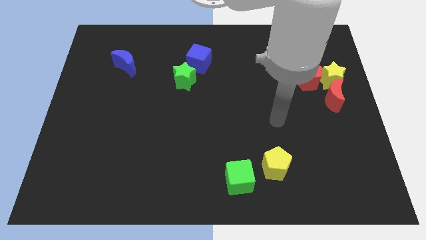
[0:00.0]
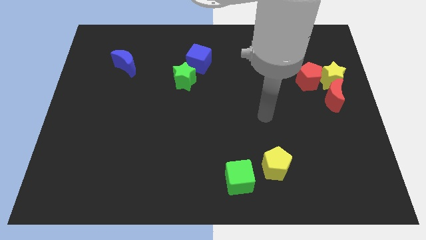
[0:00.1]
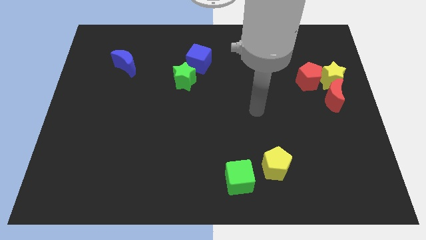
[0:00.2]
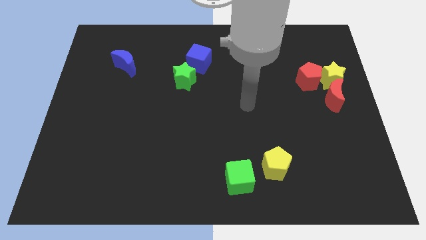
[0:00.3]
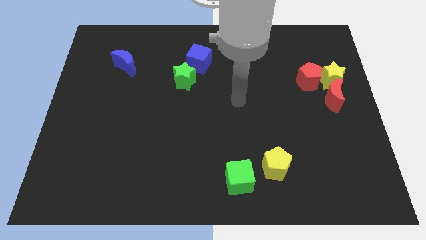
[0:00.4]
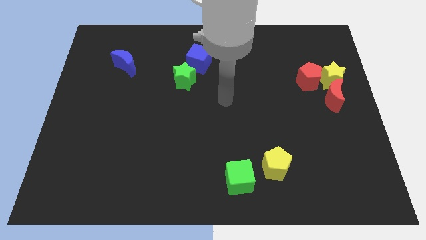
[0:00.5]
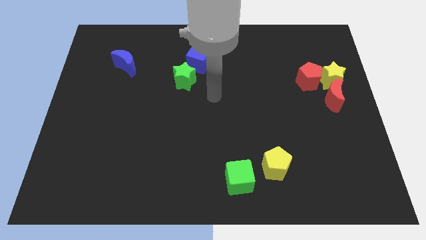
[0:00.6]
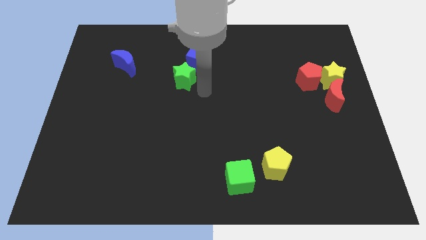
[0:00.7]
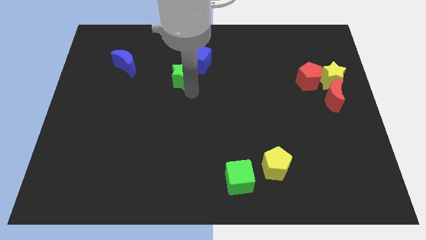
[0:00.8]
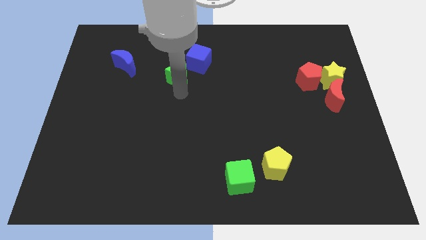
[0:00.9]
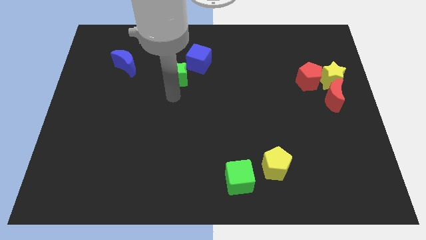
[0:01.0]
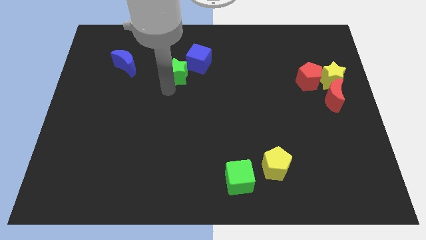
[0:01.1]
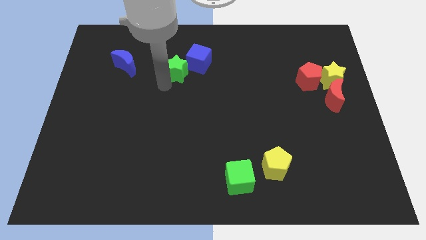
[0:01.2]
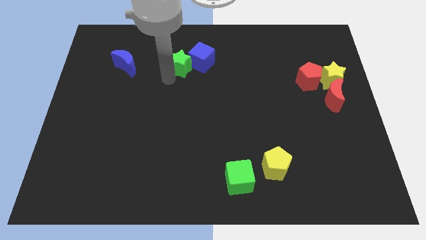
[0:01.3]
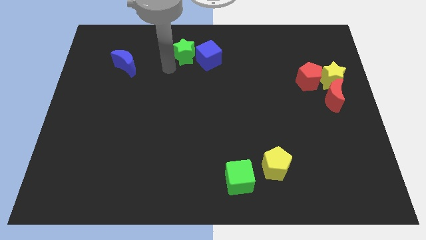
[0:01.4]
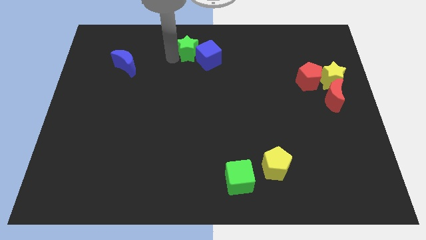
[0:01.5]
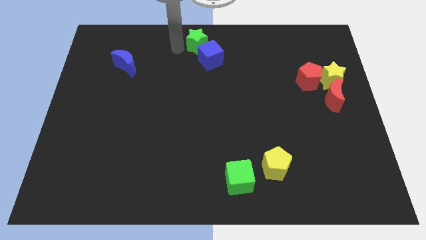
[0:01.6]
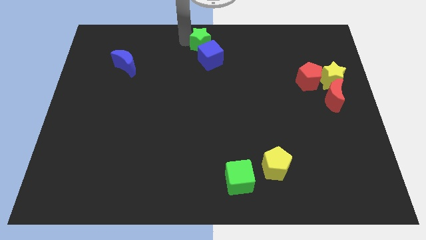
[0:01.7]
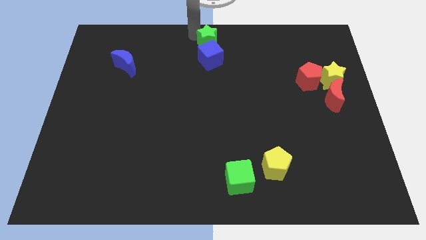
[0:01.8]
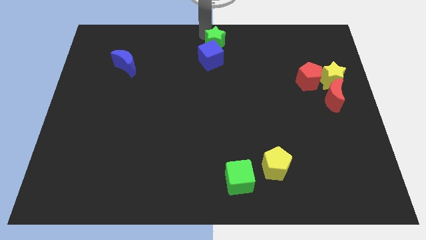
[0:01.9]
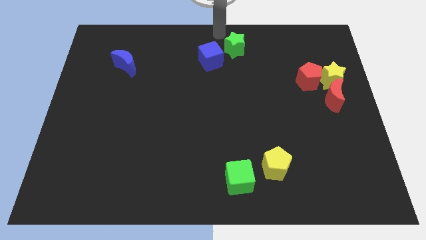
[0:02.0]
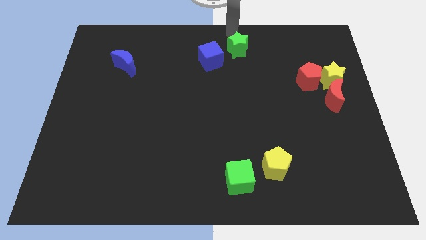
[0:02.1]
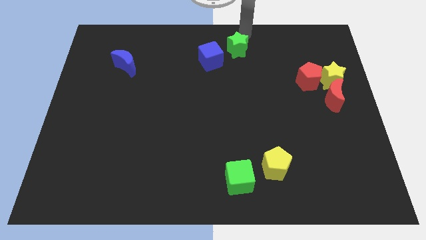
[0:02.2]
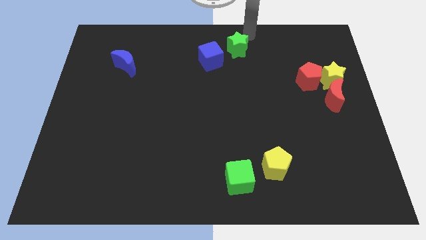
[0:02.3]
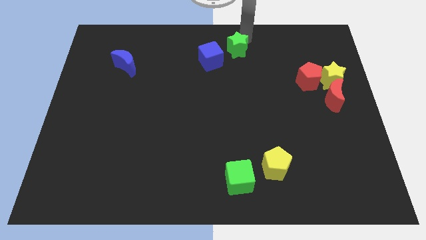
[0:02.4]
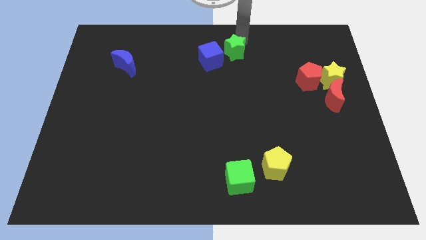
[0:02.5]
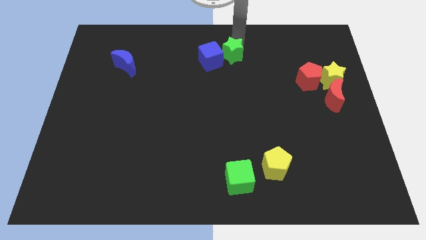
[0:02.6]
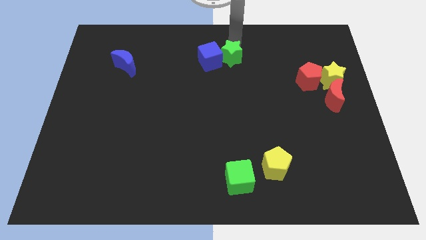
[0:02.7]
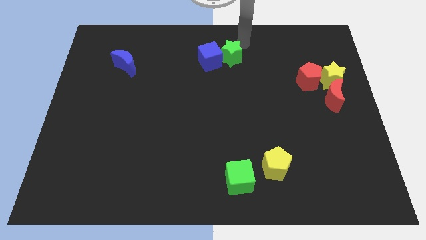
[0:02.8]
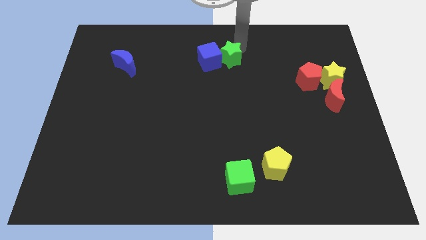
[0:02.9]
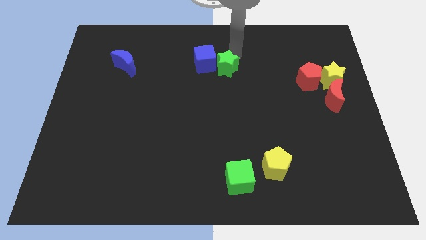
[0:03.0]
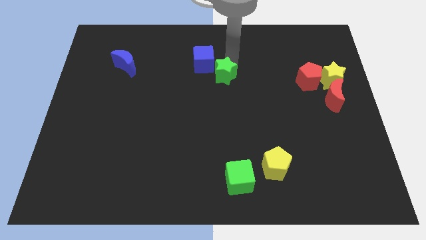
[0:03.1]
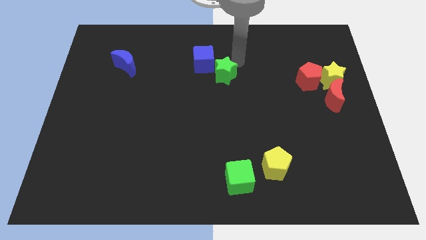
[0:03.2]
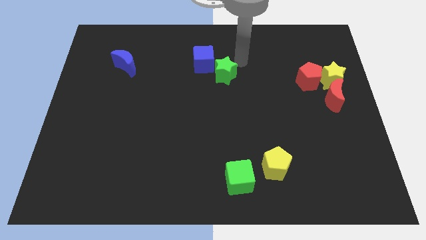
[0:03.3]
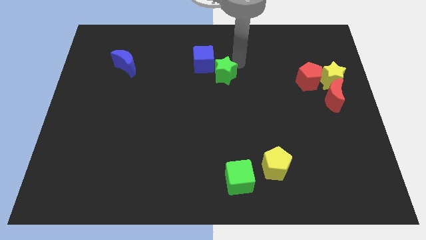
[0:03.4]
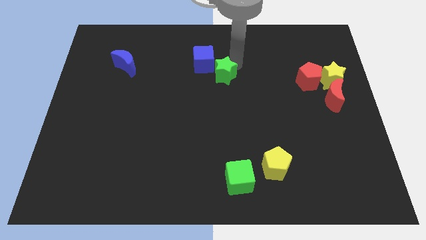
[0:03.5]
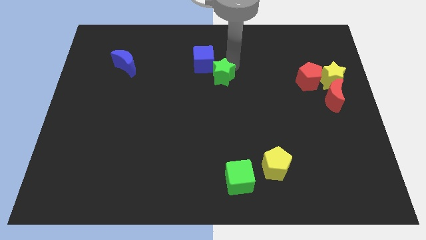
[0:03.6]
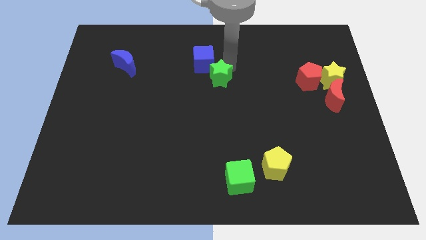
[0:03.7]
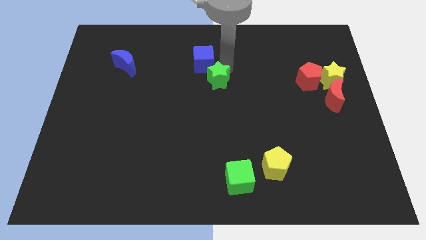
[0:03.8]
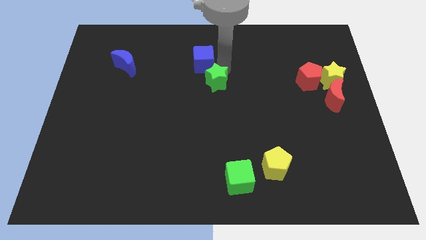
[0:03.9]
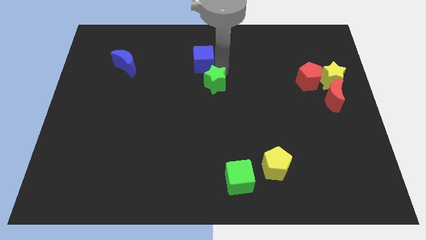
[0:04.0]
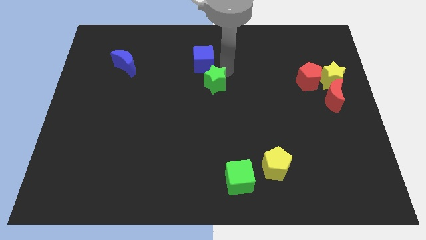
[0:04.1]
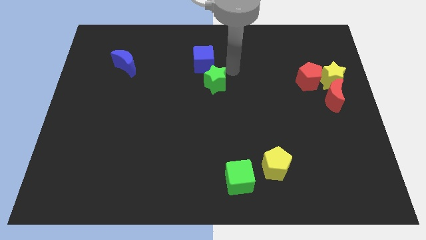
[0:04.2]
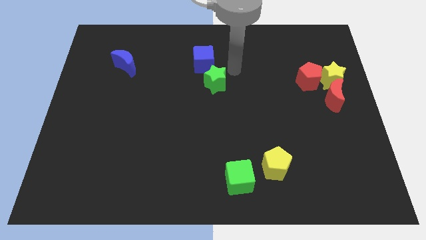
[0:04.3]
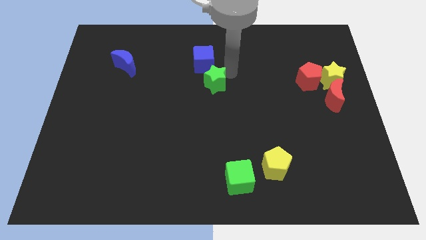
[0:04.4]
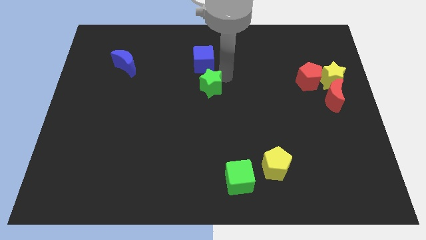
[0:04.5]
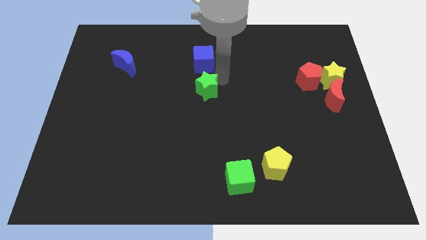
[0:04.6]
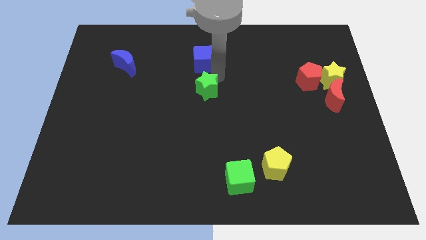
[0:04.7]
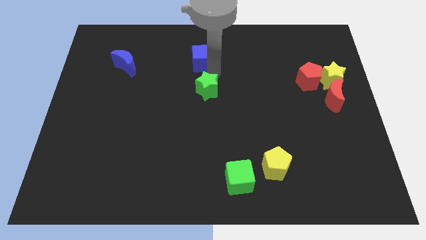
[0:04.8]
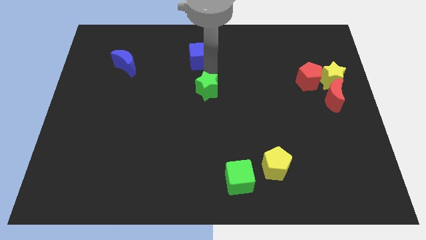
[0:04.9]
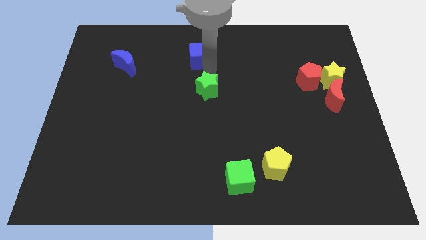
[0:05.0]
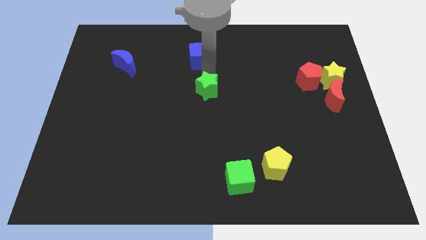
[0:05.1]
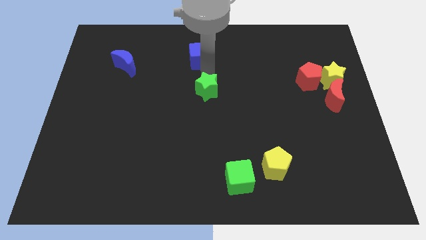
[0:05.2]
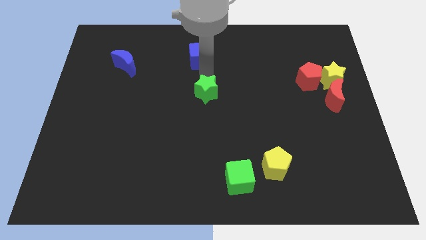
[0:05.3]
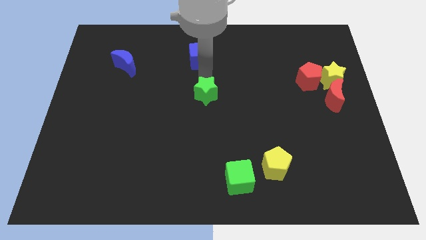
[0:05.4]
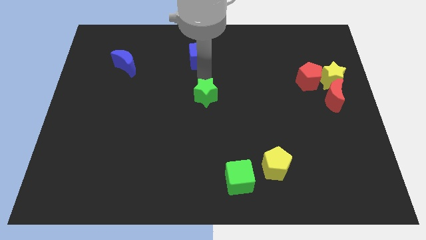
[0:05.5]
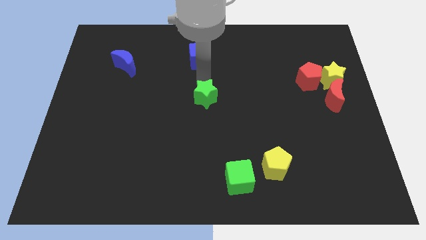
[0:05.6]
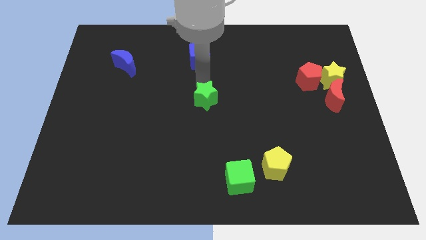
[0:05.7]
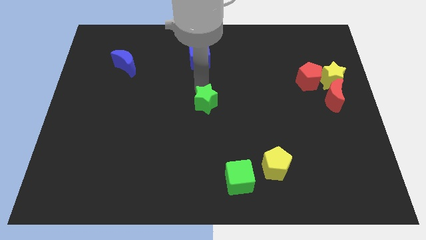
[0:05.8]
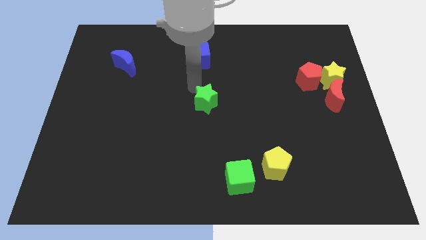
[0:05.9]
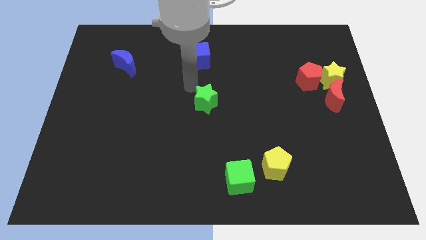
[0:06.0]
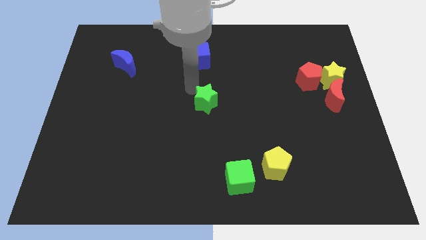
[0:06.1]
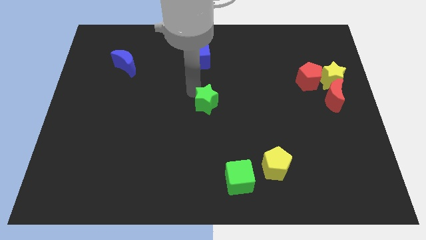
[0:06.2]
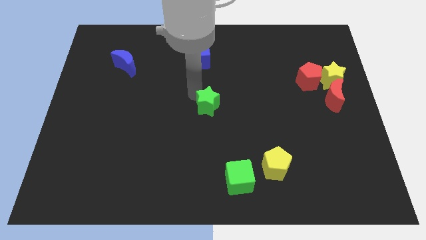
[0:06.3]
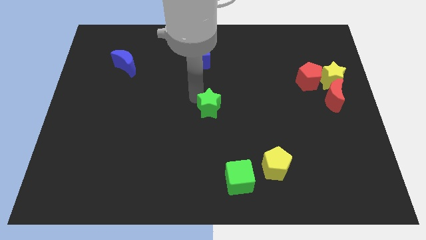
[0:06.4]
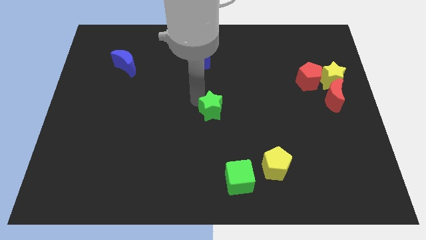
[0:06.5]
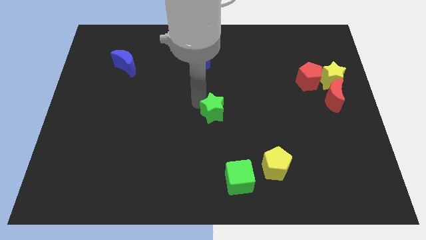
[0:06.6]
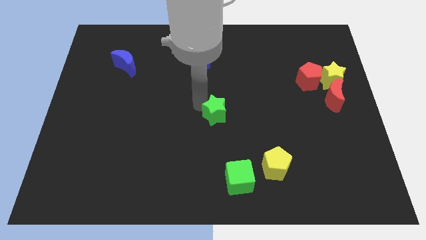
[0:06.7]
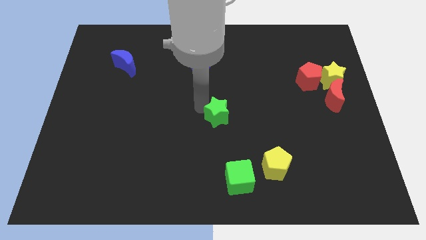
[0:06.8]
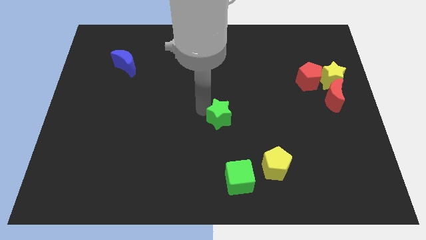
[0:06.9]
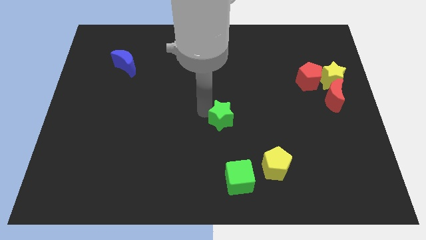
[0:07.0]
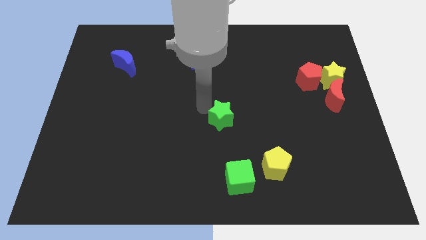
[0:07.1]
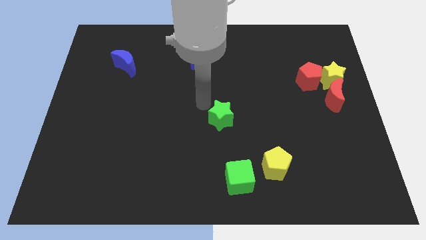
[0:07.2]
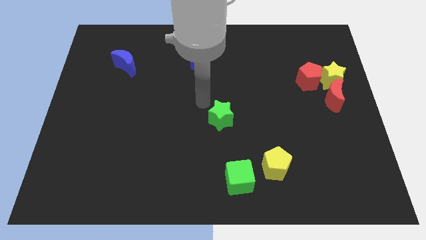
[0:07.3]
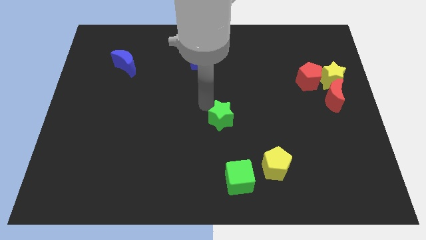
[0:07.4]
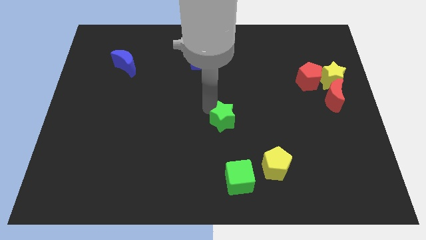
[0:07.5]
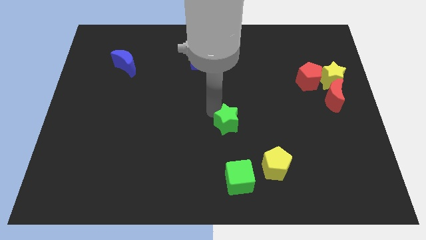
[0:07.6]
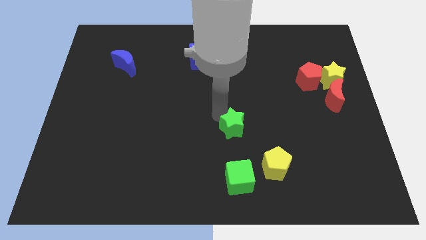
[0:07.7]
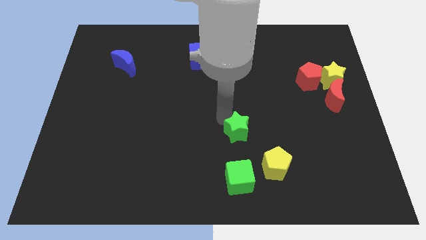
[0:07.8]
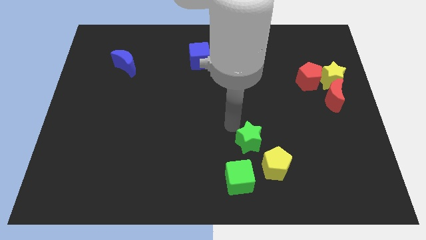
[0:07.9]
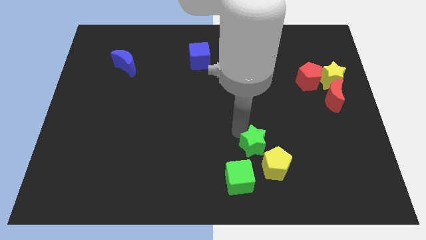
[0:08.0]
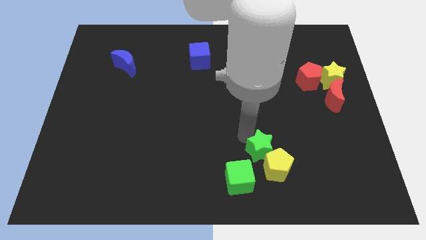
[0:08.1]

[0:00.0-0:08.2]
move the green star to the yellow pentagon
